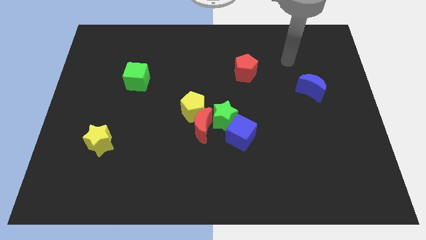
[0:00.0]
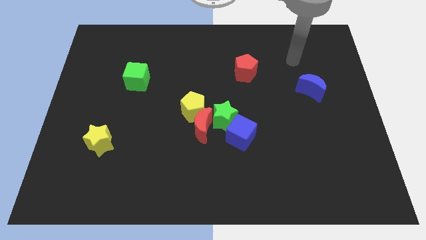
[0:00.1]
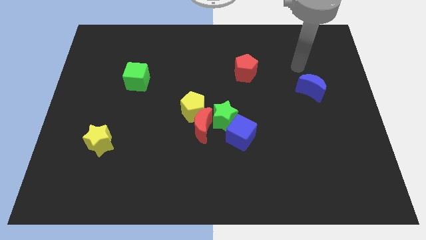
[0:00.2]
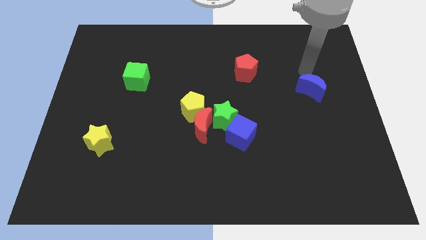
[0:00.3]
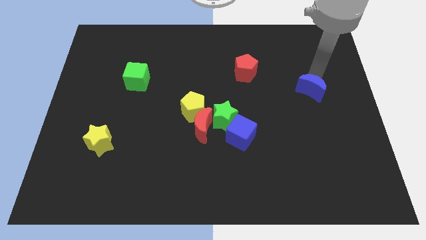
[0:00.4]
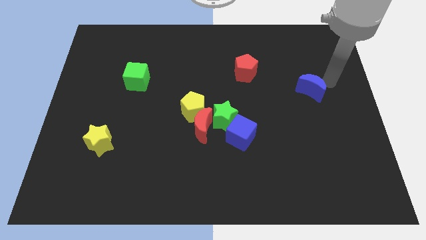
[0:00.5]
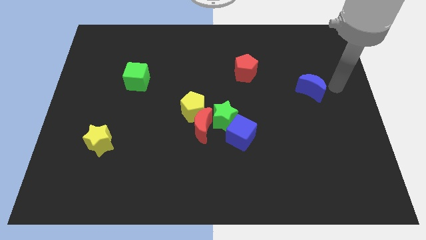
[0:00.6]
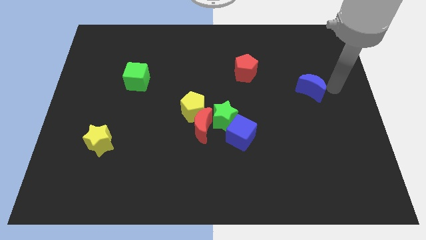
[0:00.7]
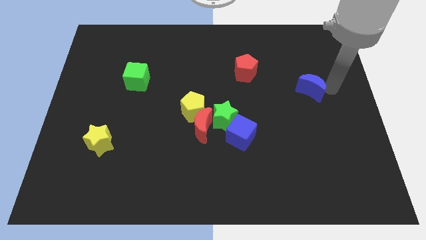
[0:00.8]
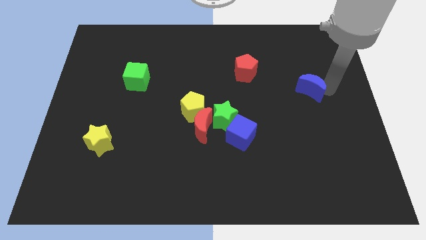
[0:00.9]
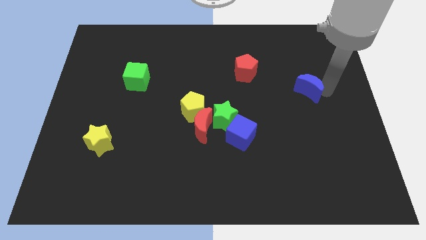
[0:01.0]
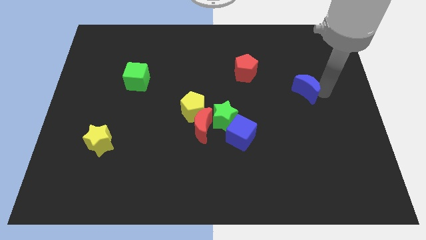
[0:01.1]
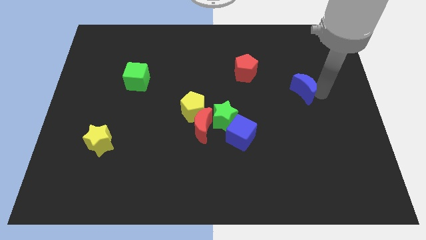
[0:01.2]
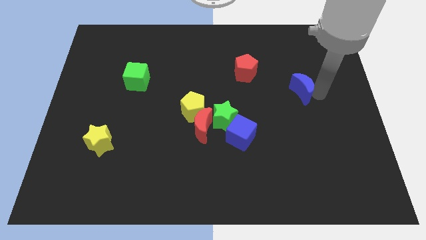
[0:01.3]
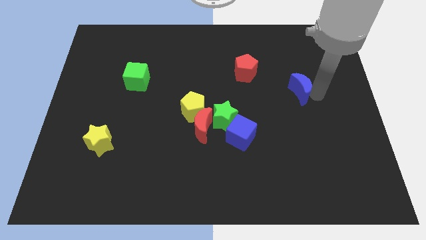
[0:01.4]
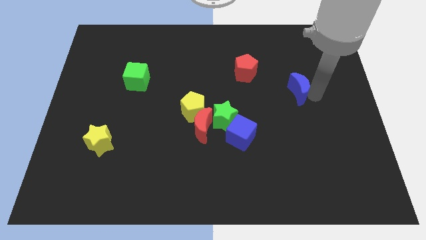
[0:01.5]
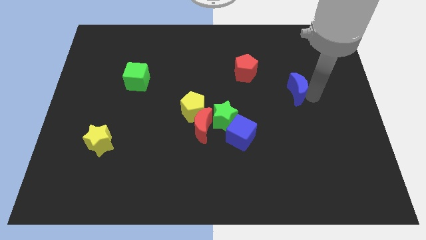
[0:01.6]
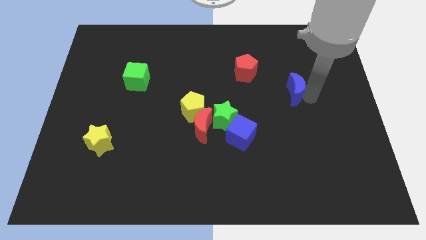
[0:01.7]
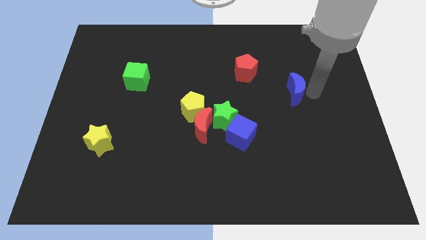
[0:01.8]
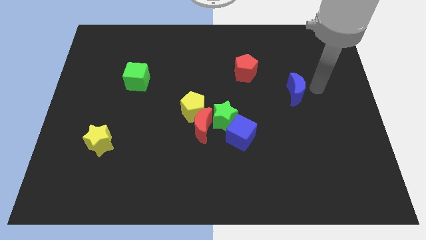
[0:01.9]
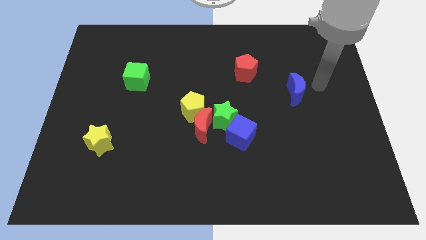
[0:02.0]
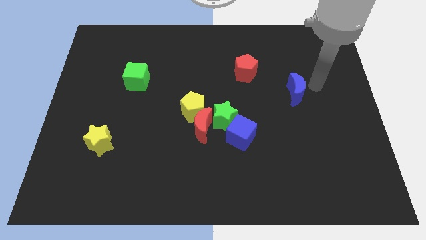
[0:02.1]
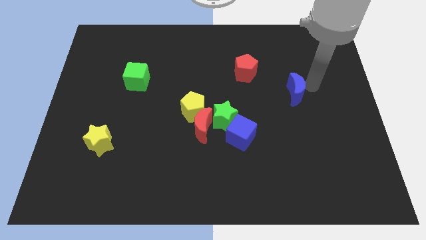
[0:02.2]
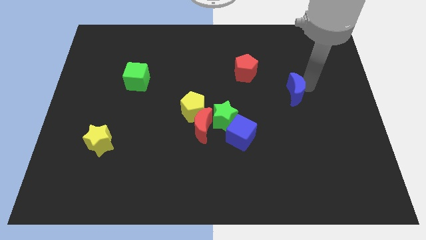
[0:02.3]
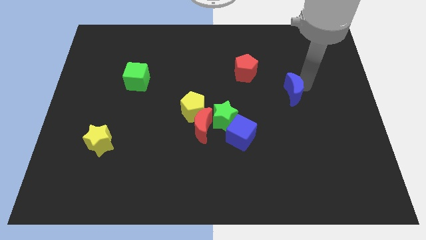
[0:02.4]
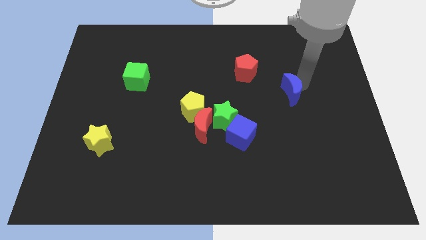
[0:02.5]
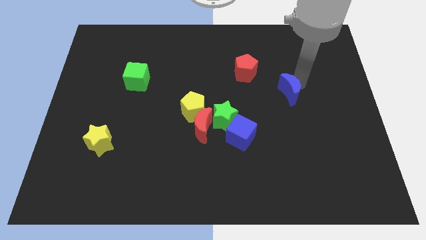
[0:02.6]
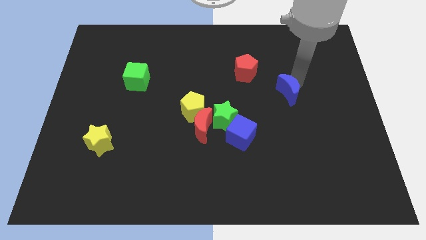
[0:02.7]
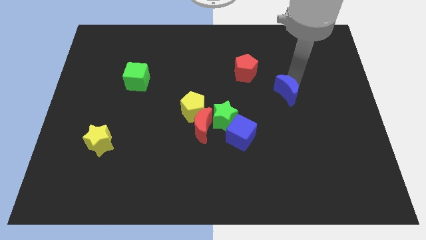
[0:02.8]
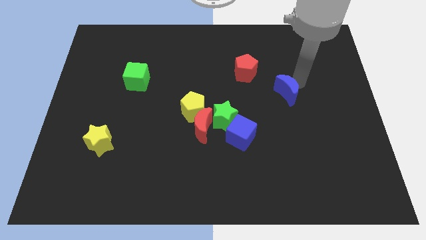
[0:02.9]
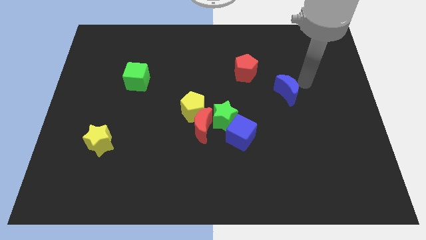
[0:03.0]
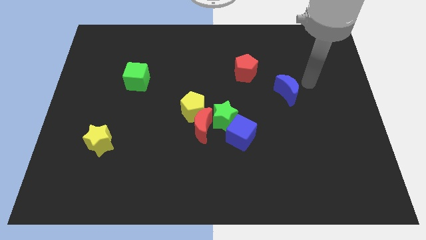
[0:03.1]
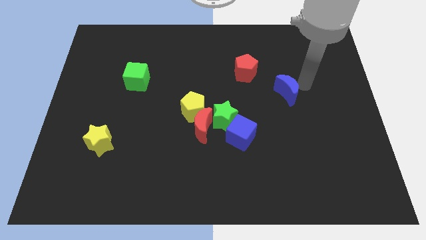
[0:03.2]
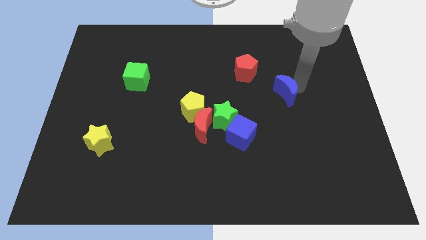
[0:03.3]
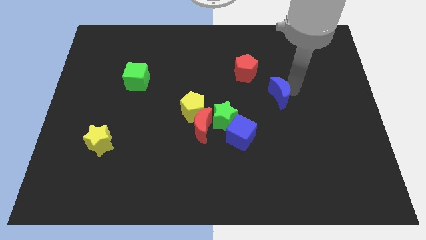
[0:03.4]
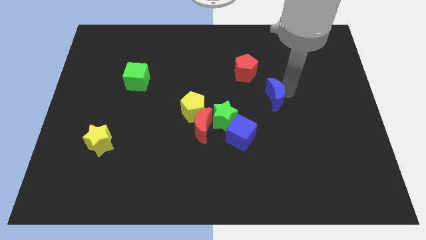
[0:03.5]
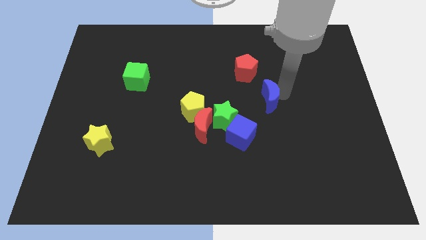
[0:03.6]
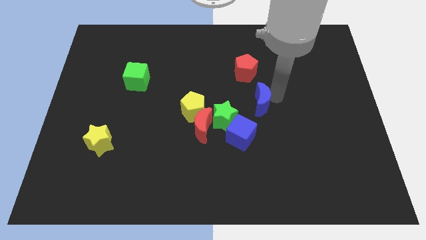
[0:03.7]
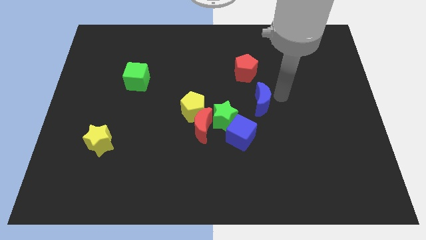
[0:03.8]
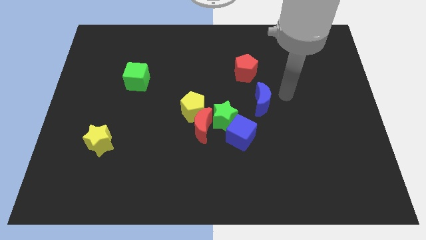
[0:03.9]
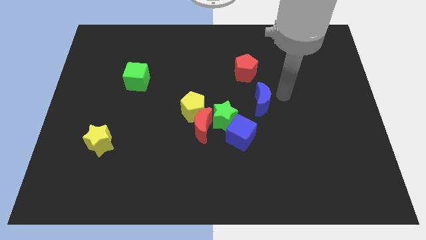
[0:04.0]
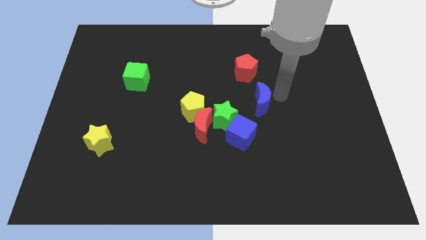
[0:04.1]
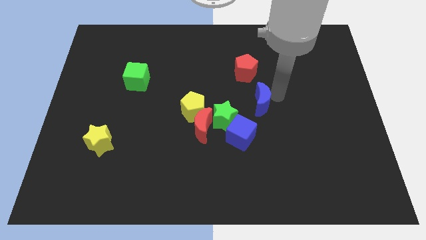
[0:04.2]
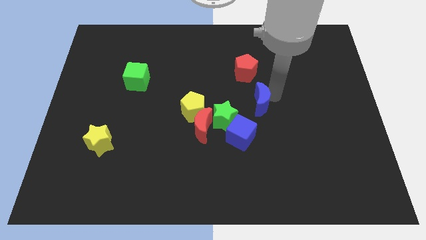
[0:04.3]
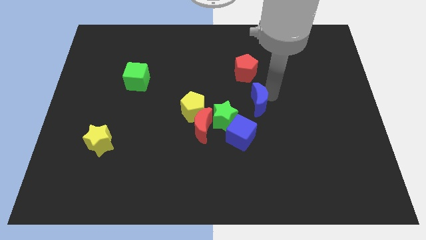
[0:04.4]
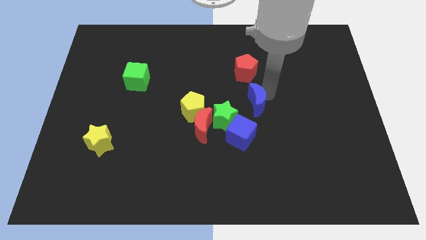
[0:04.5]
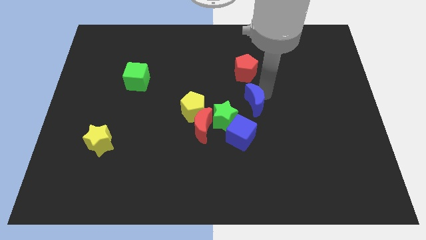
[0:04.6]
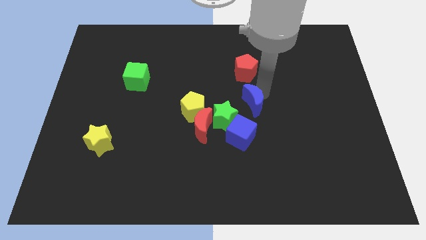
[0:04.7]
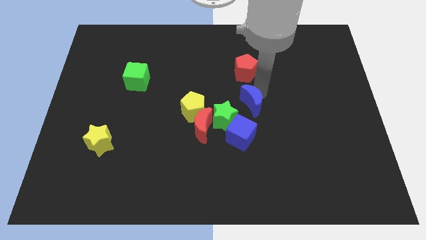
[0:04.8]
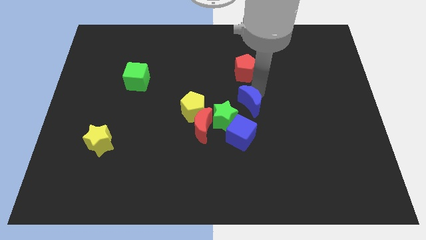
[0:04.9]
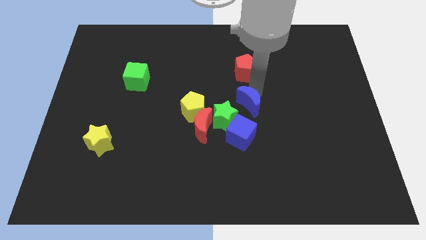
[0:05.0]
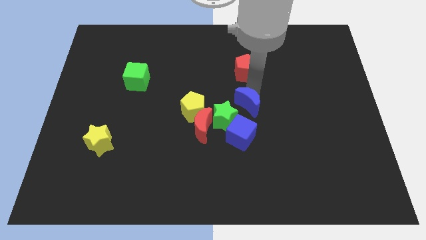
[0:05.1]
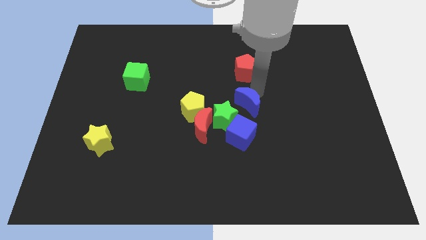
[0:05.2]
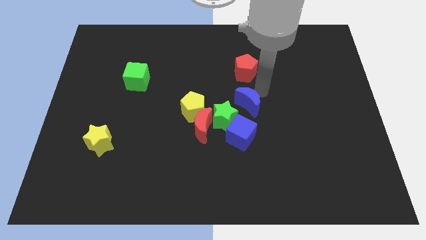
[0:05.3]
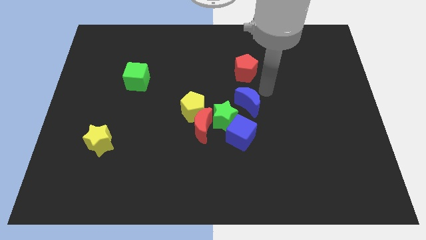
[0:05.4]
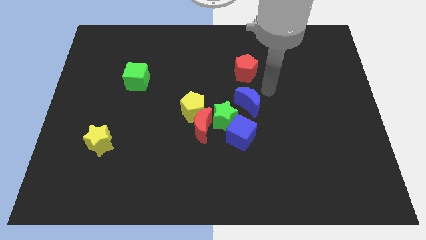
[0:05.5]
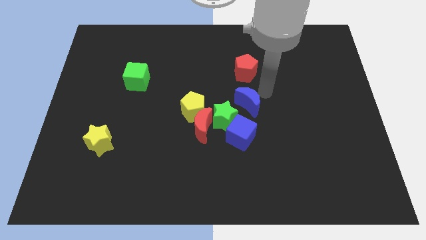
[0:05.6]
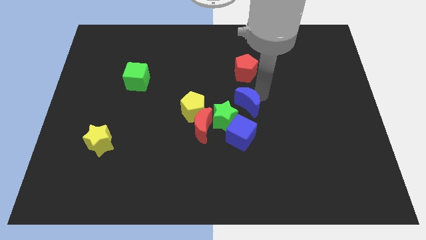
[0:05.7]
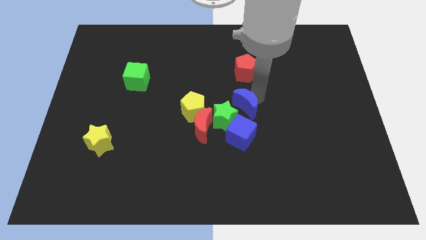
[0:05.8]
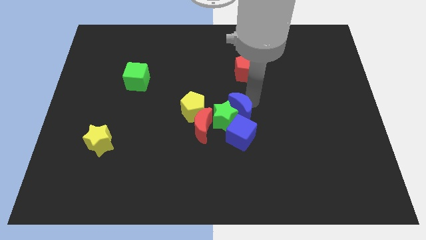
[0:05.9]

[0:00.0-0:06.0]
push the blue moon next to the green star
